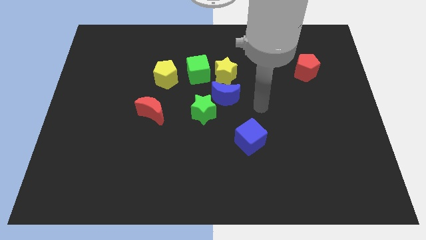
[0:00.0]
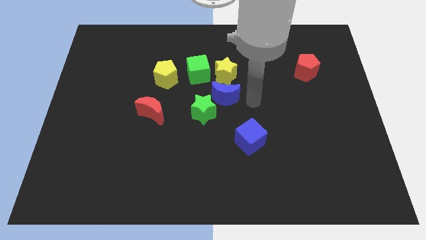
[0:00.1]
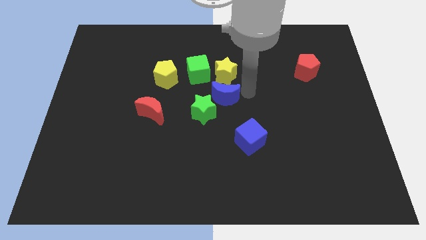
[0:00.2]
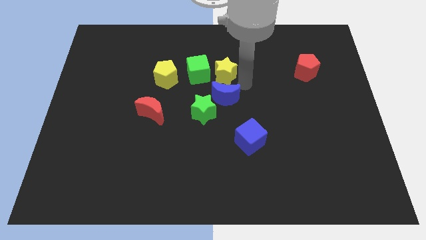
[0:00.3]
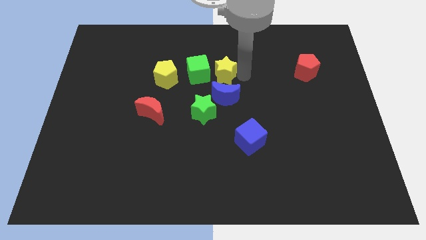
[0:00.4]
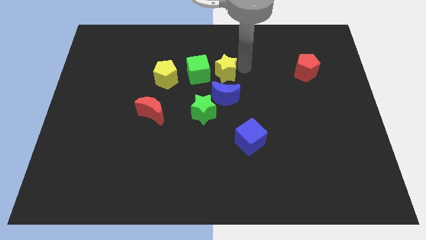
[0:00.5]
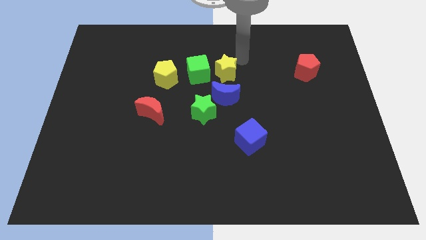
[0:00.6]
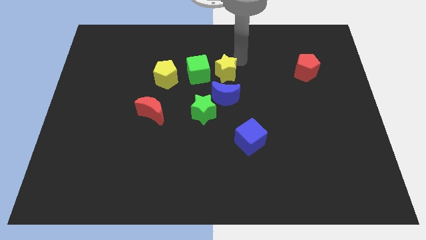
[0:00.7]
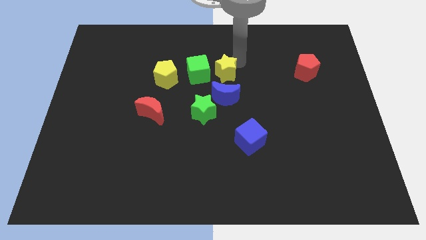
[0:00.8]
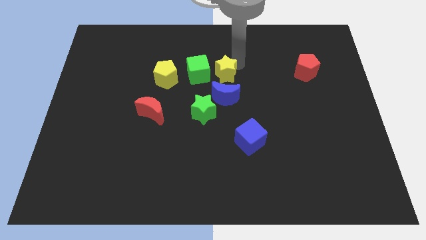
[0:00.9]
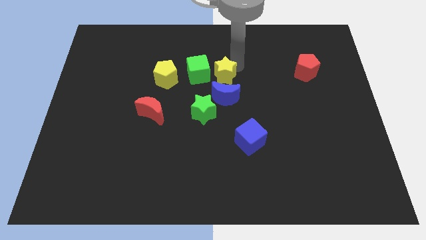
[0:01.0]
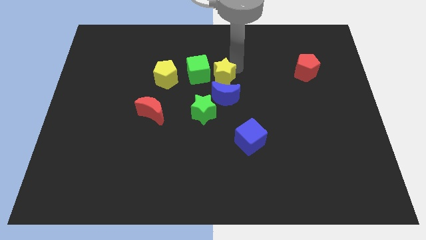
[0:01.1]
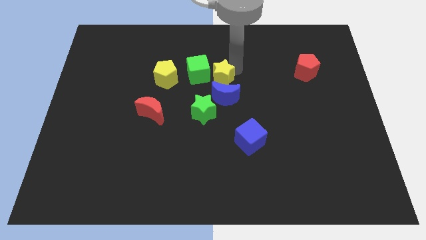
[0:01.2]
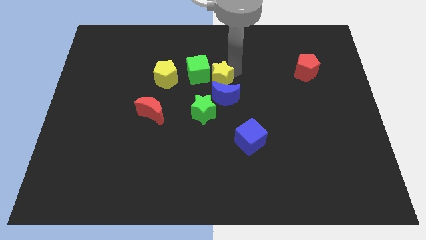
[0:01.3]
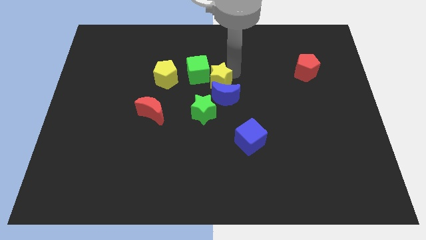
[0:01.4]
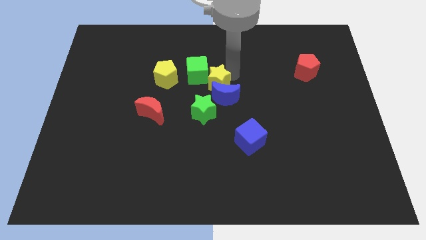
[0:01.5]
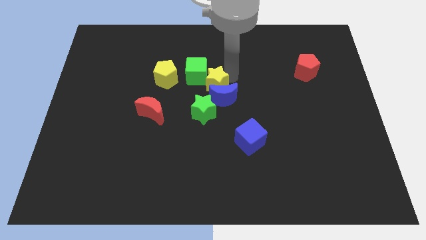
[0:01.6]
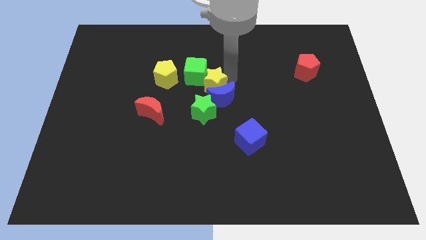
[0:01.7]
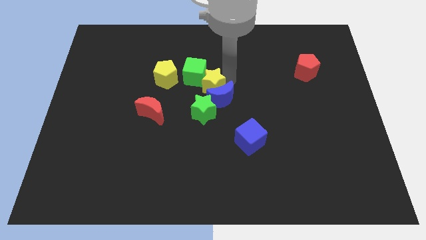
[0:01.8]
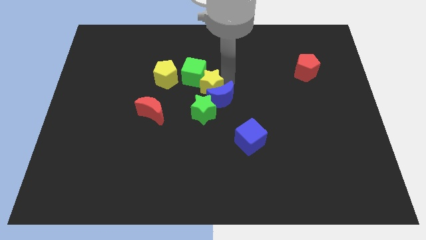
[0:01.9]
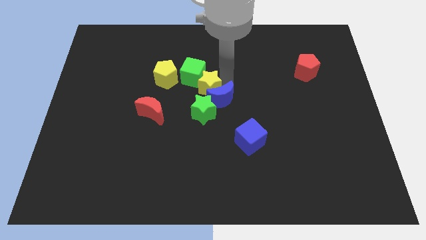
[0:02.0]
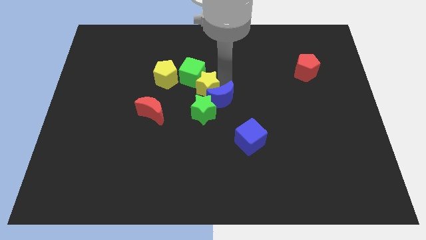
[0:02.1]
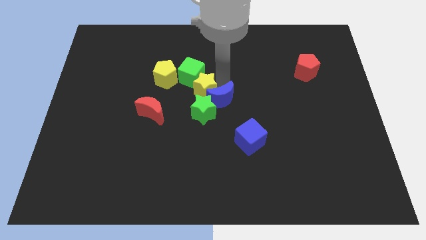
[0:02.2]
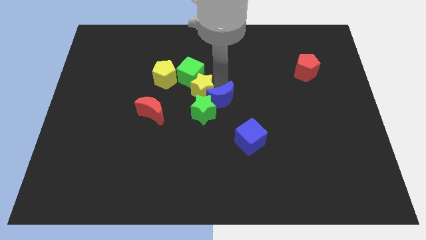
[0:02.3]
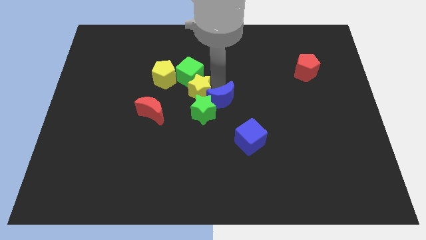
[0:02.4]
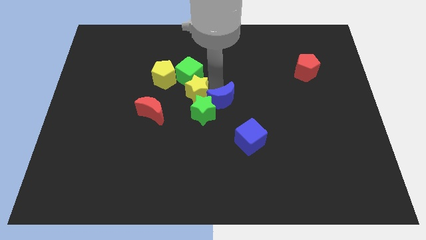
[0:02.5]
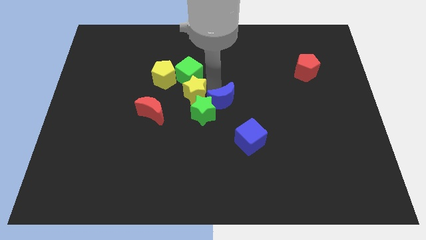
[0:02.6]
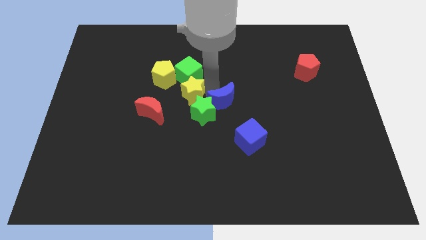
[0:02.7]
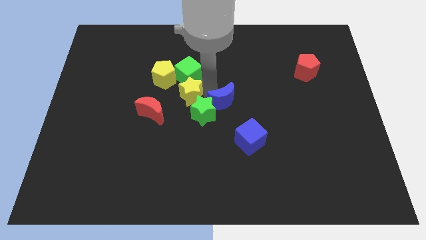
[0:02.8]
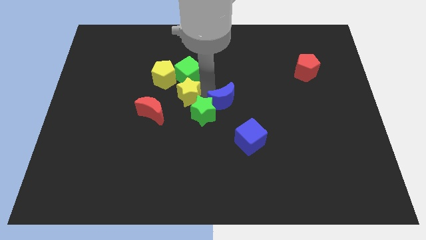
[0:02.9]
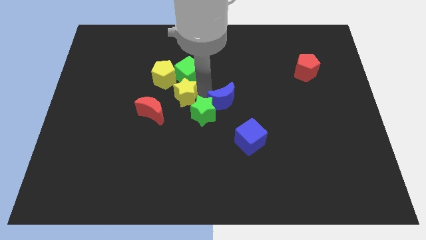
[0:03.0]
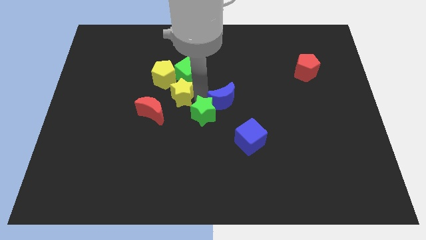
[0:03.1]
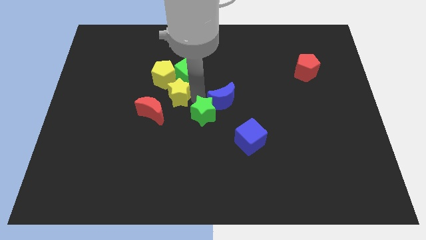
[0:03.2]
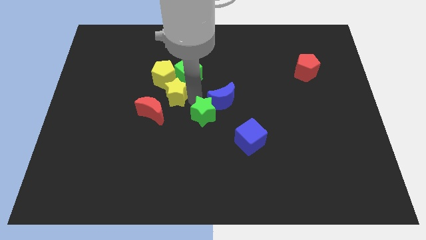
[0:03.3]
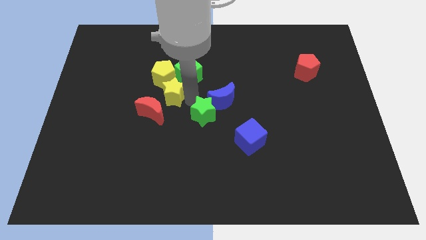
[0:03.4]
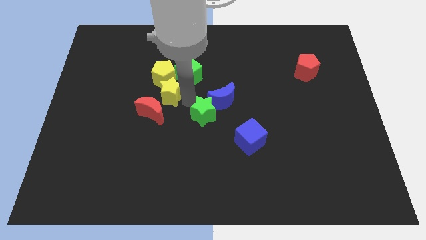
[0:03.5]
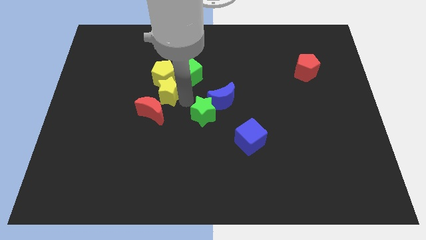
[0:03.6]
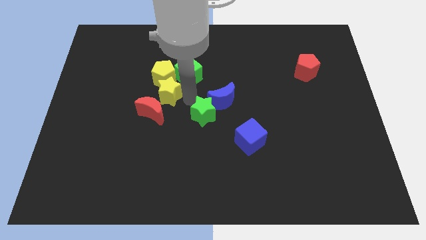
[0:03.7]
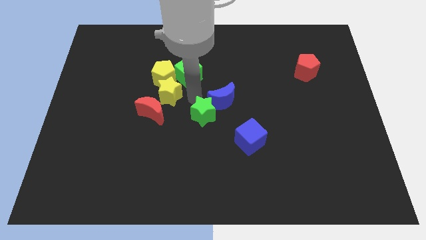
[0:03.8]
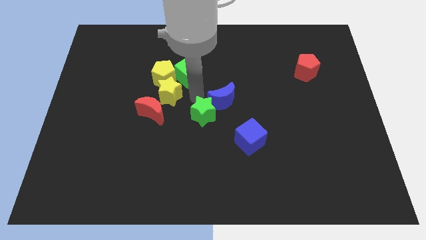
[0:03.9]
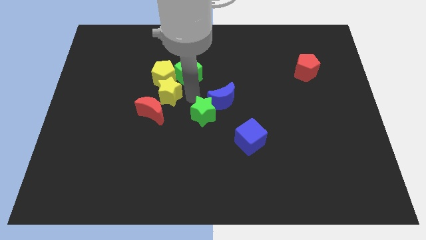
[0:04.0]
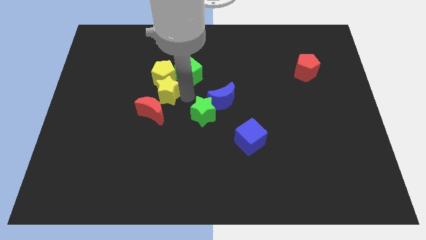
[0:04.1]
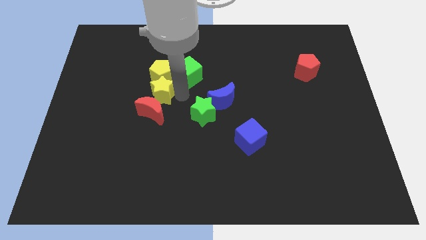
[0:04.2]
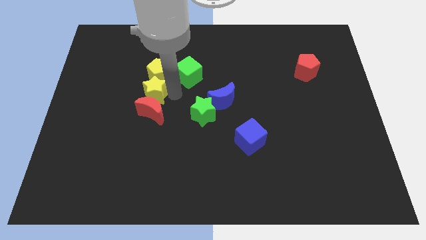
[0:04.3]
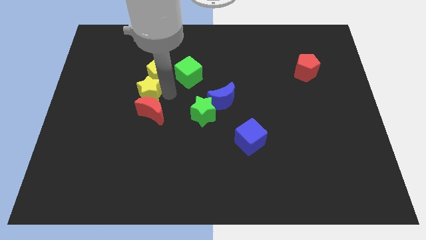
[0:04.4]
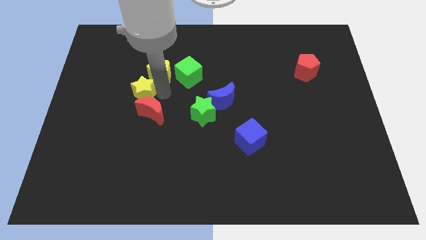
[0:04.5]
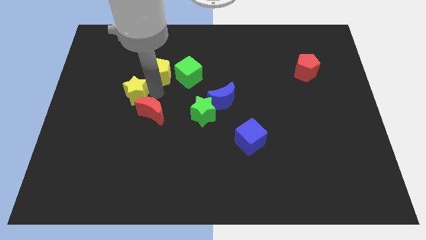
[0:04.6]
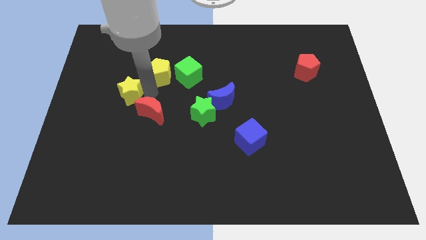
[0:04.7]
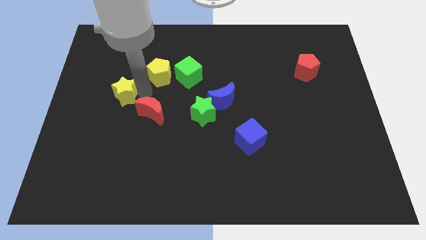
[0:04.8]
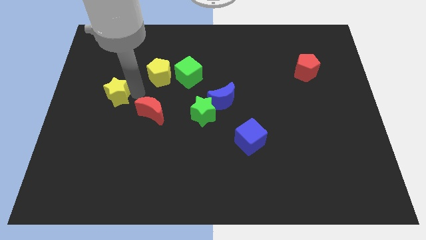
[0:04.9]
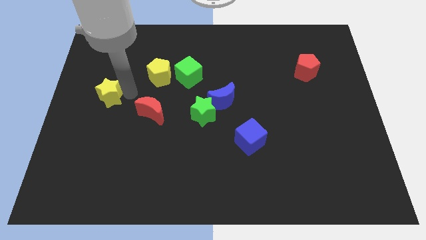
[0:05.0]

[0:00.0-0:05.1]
push the yellow star to the left side of the board

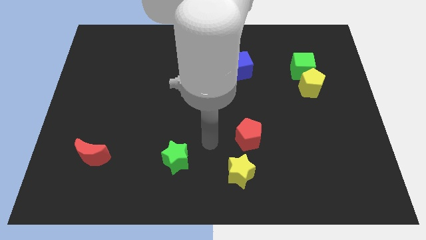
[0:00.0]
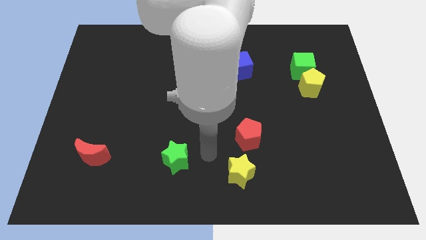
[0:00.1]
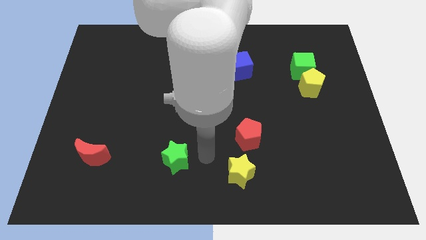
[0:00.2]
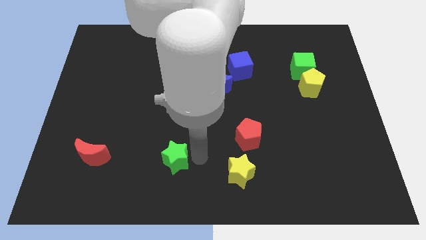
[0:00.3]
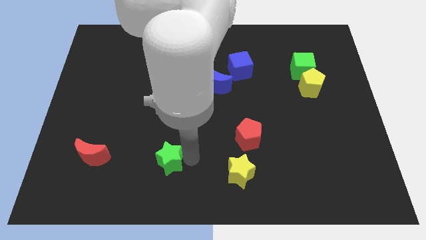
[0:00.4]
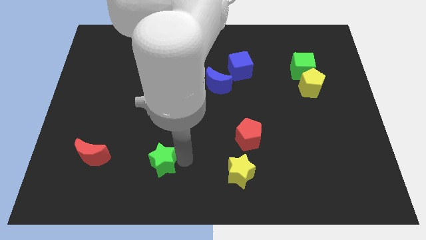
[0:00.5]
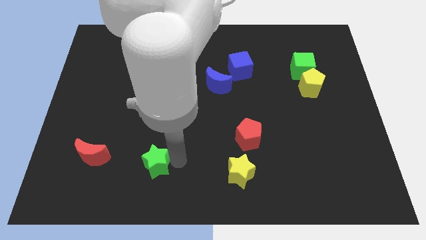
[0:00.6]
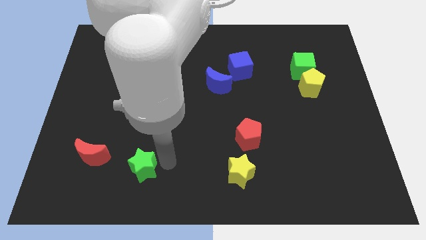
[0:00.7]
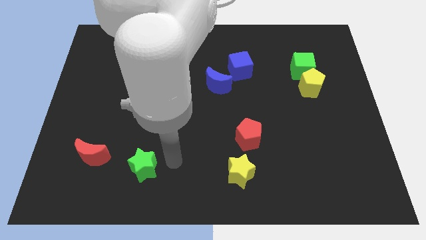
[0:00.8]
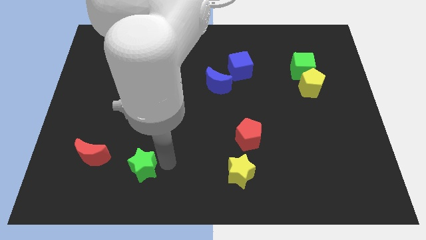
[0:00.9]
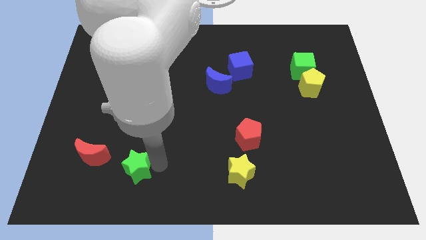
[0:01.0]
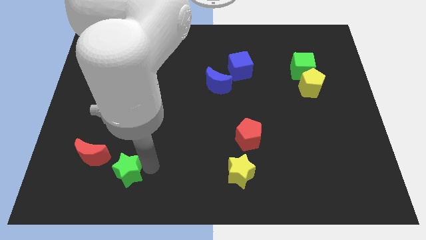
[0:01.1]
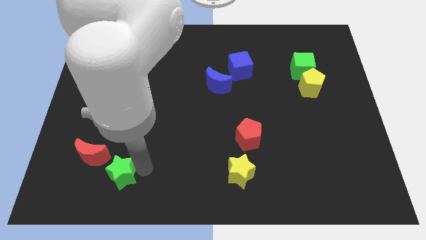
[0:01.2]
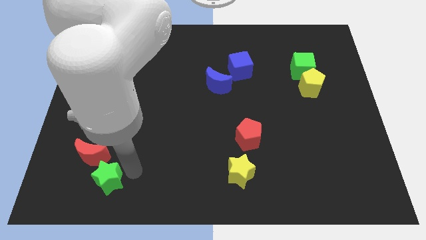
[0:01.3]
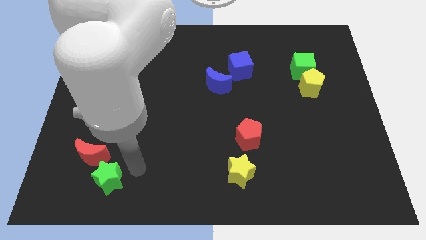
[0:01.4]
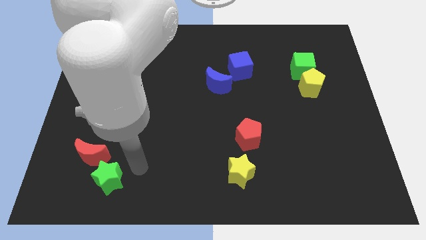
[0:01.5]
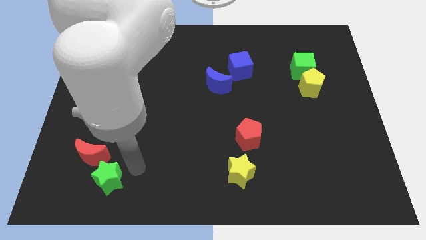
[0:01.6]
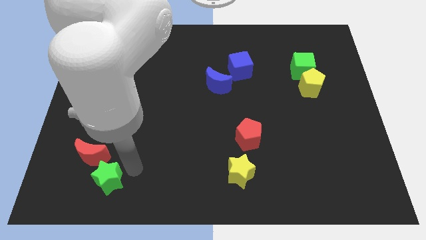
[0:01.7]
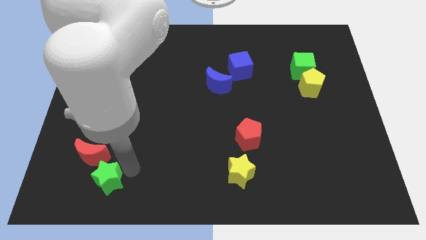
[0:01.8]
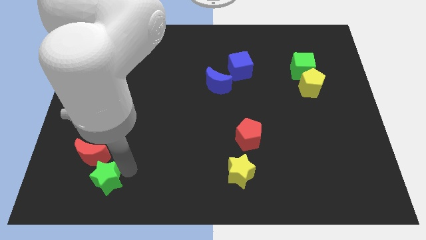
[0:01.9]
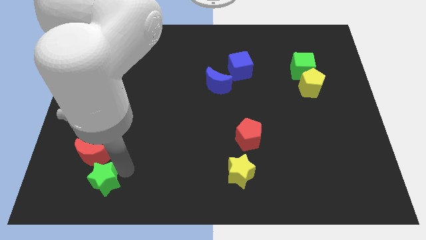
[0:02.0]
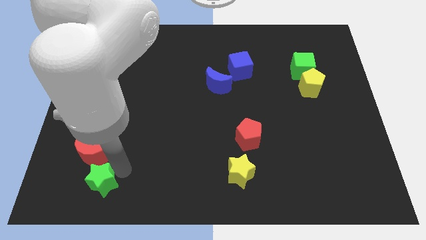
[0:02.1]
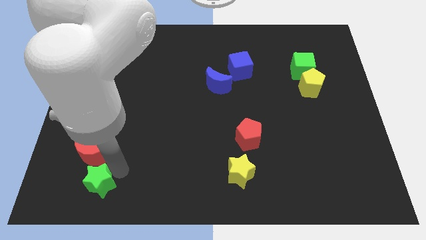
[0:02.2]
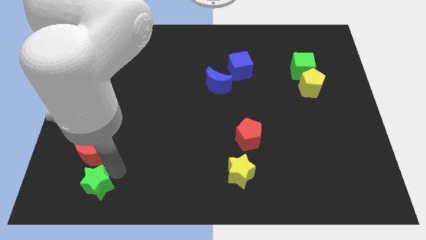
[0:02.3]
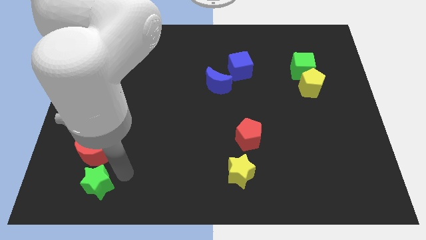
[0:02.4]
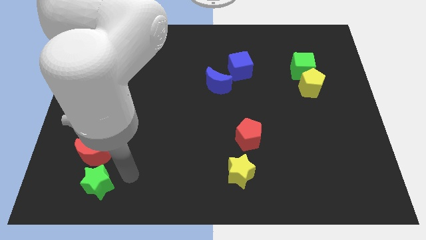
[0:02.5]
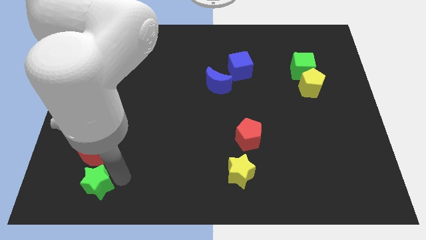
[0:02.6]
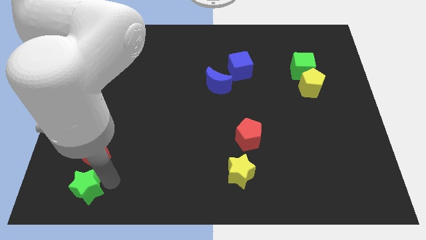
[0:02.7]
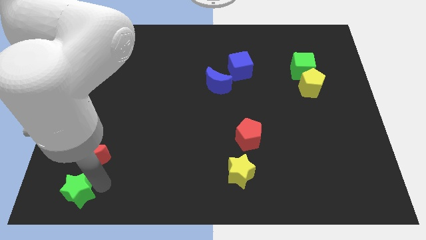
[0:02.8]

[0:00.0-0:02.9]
put the green star to the lower left corner
